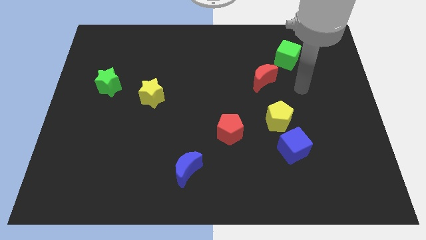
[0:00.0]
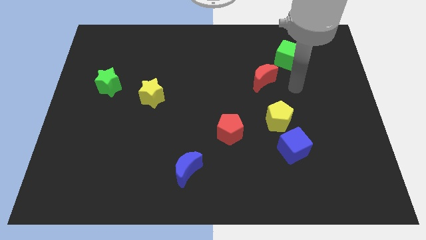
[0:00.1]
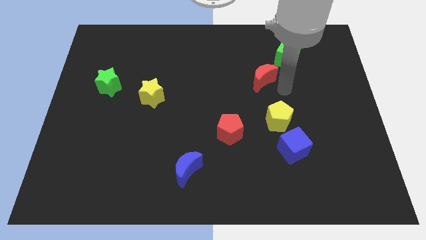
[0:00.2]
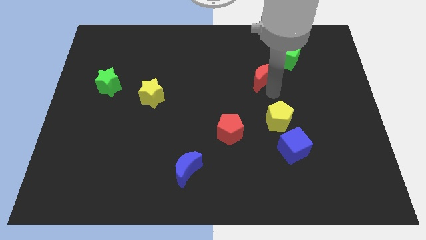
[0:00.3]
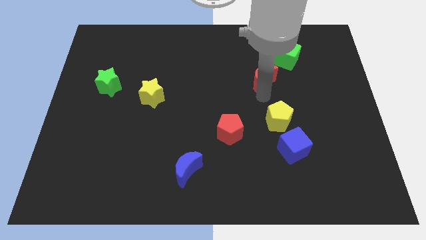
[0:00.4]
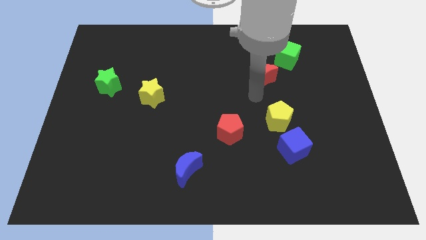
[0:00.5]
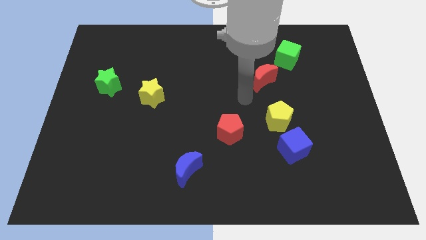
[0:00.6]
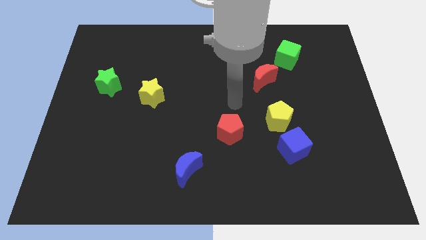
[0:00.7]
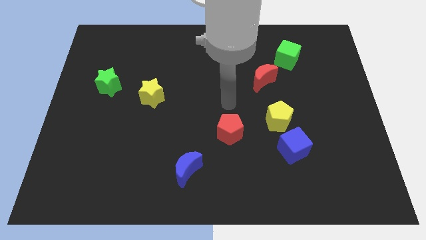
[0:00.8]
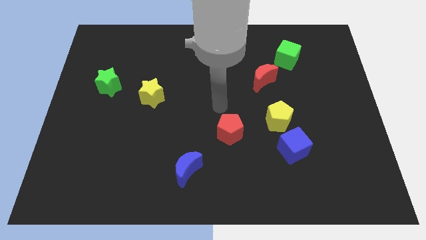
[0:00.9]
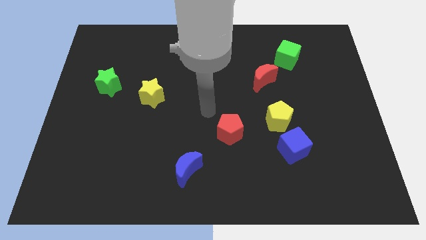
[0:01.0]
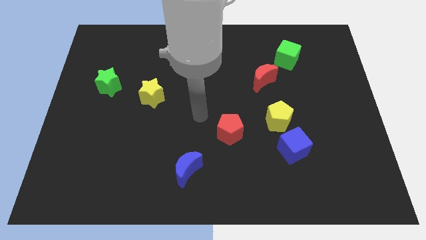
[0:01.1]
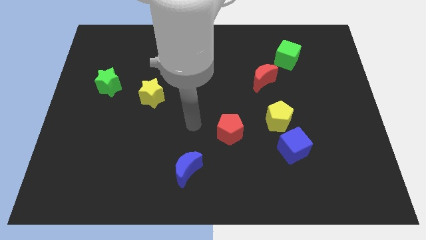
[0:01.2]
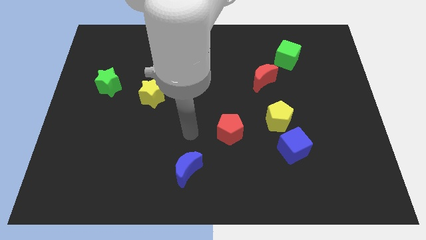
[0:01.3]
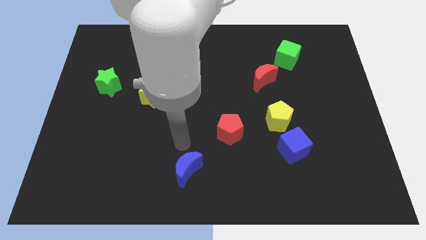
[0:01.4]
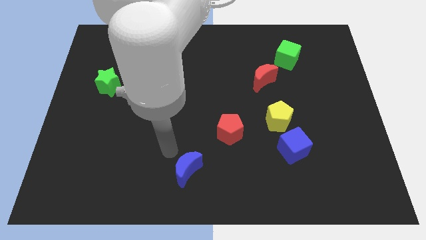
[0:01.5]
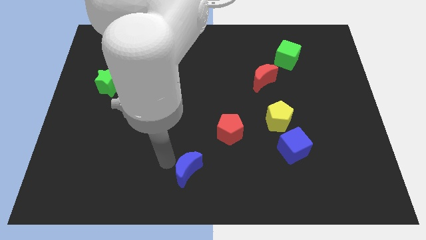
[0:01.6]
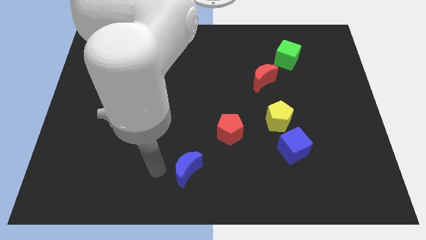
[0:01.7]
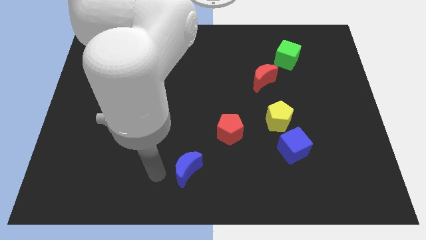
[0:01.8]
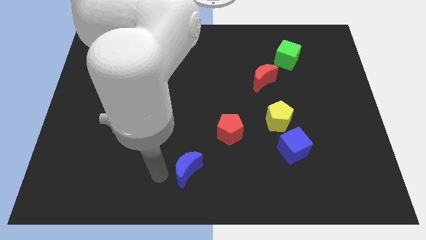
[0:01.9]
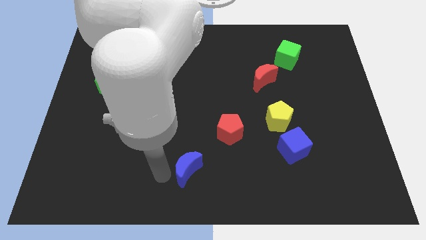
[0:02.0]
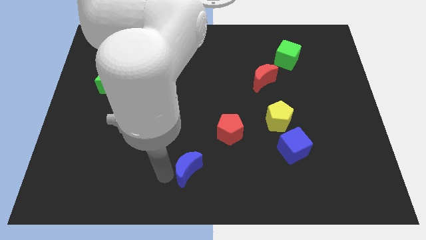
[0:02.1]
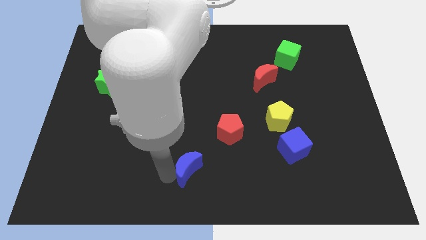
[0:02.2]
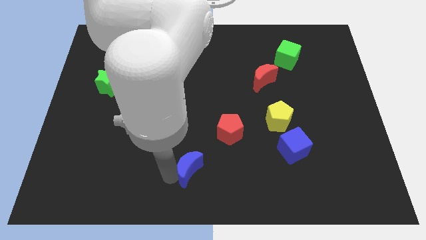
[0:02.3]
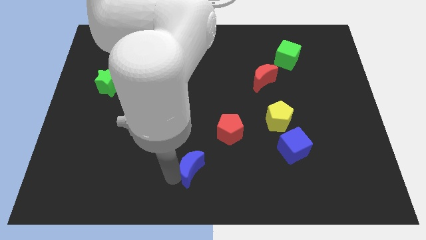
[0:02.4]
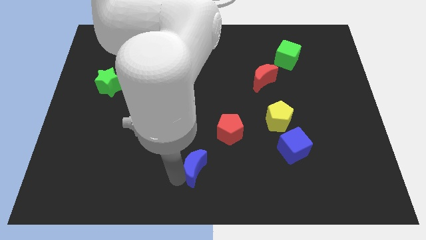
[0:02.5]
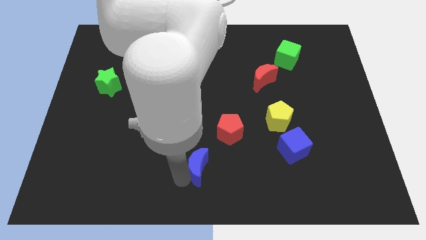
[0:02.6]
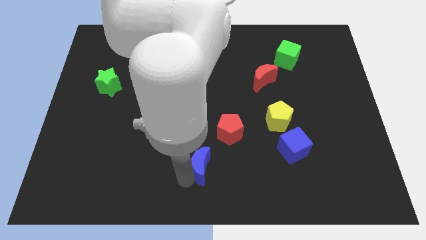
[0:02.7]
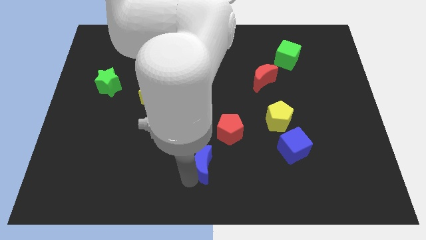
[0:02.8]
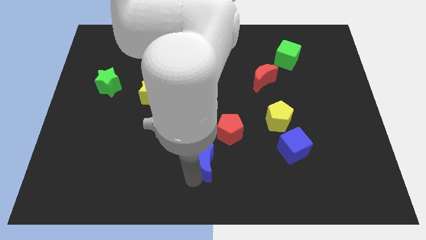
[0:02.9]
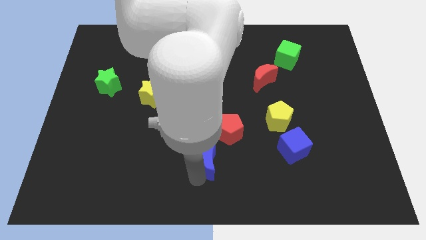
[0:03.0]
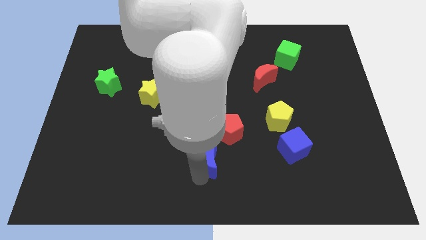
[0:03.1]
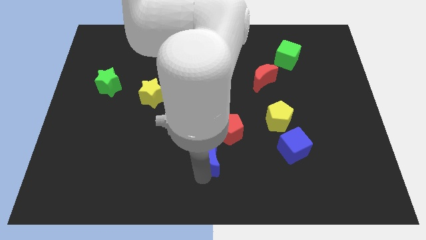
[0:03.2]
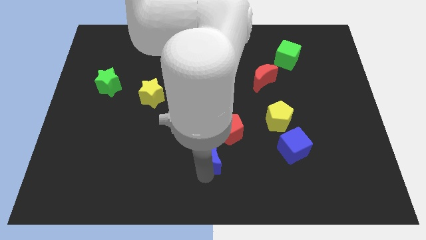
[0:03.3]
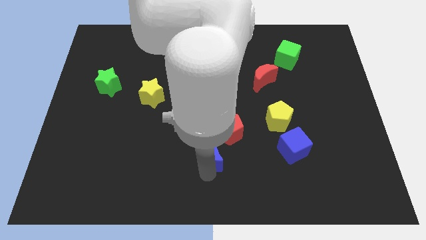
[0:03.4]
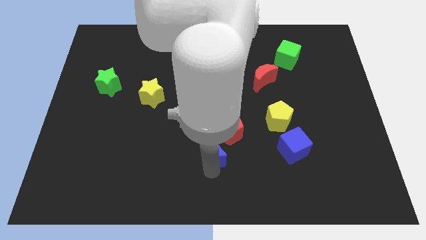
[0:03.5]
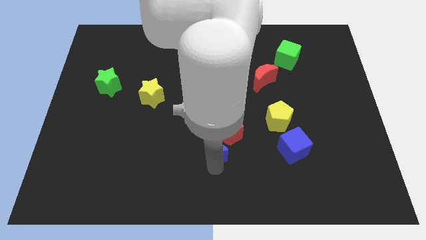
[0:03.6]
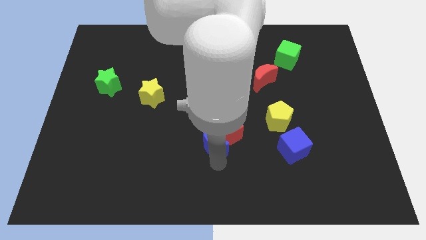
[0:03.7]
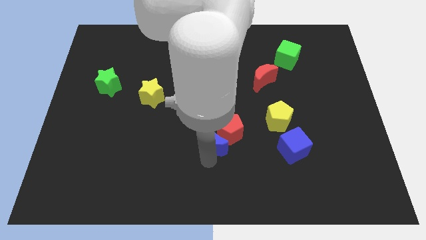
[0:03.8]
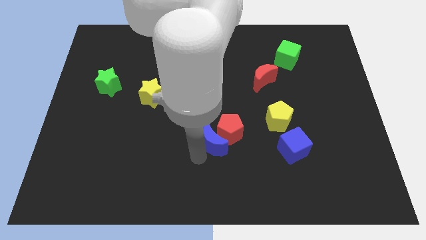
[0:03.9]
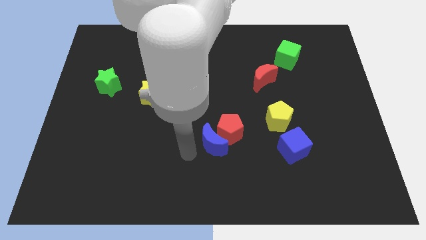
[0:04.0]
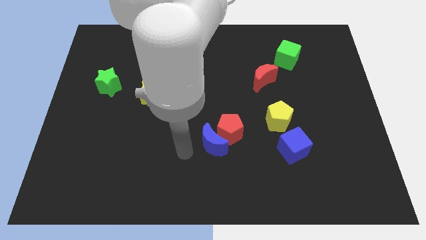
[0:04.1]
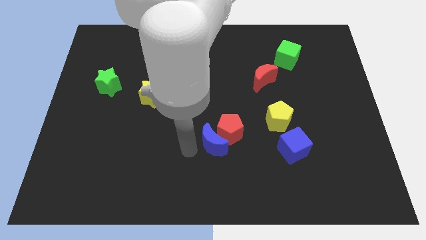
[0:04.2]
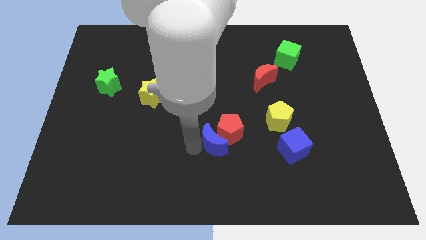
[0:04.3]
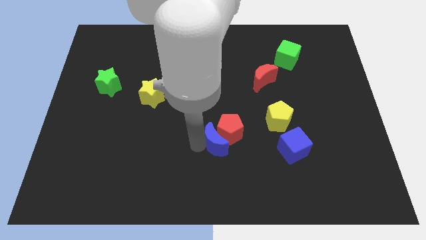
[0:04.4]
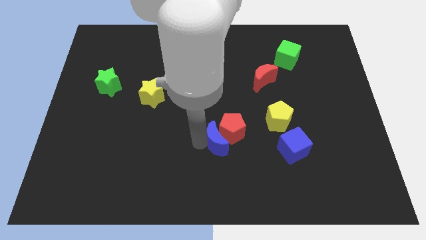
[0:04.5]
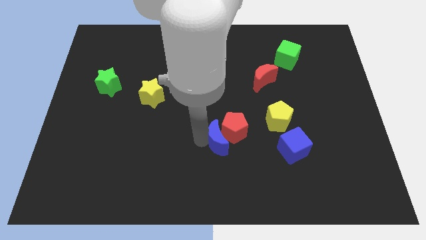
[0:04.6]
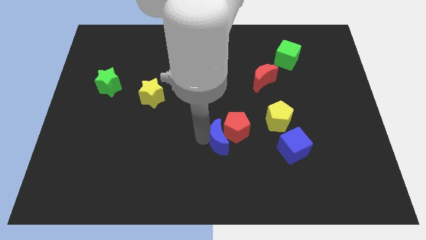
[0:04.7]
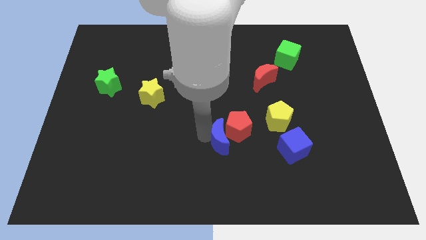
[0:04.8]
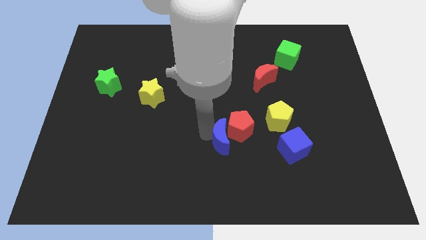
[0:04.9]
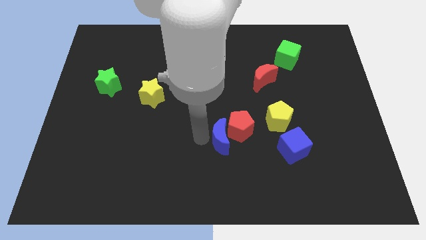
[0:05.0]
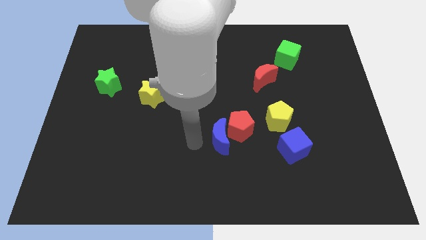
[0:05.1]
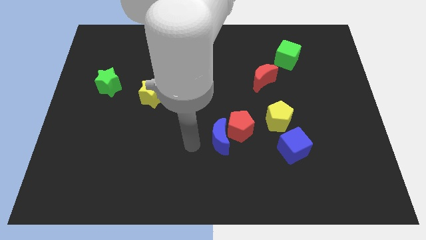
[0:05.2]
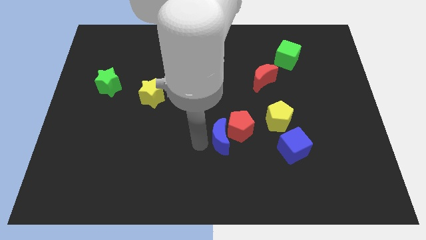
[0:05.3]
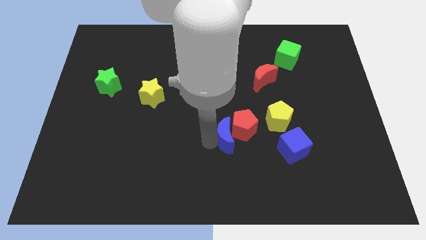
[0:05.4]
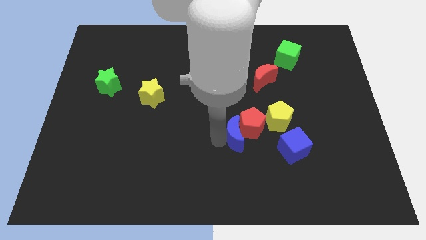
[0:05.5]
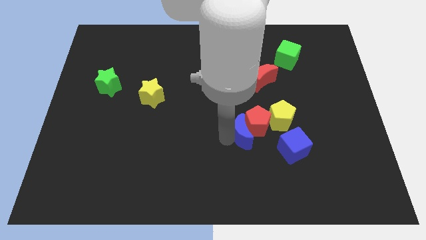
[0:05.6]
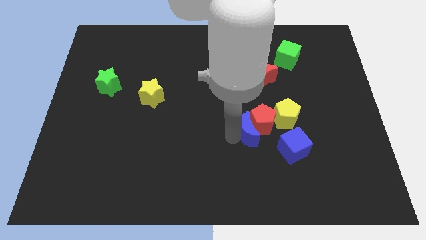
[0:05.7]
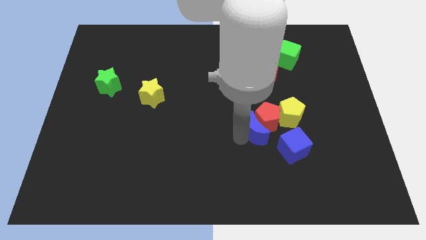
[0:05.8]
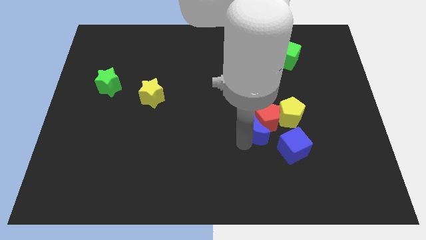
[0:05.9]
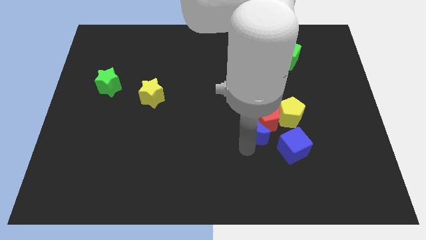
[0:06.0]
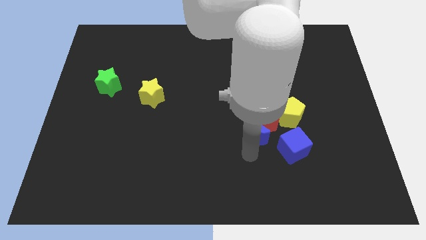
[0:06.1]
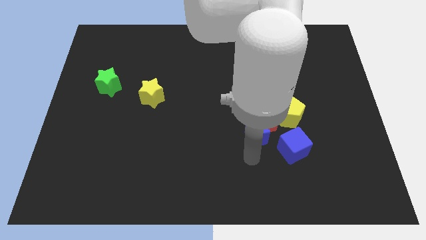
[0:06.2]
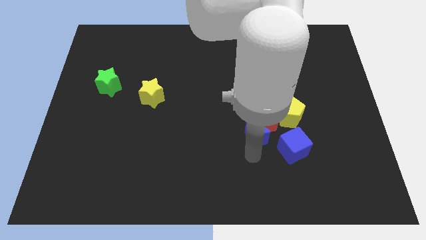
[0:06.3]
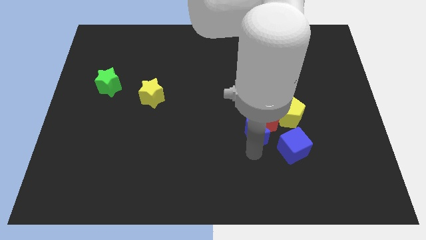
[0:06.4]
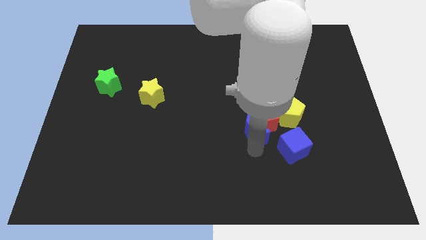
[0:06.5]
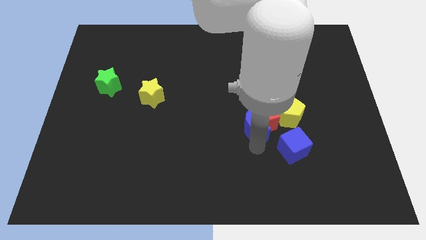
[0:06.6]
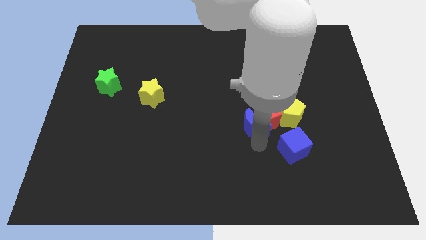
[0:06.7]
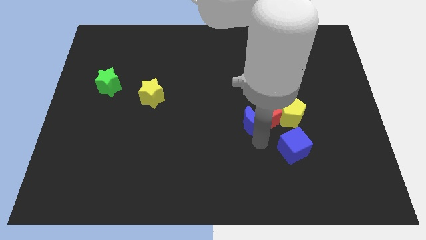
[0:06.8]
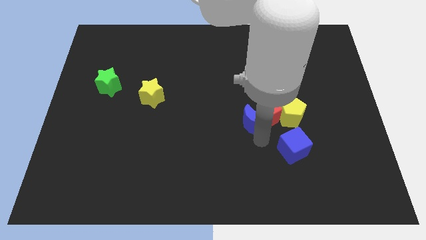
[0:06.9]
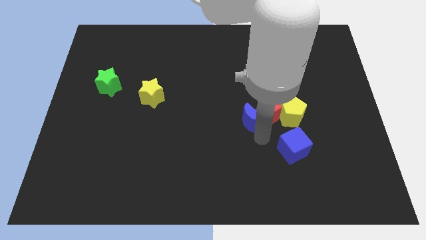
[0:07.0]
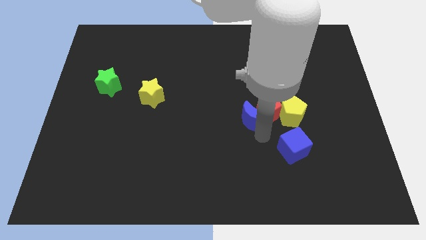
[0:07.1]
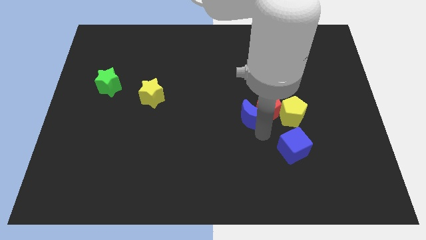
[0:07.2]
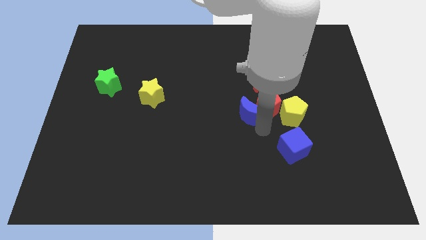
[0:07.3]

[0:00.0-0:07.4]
move the blue moon up and to the right diagonally

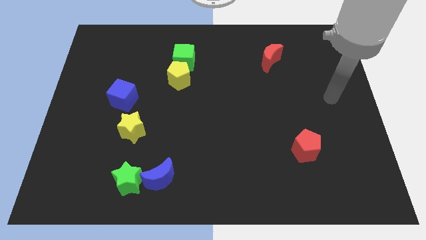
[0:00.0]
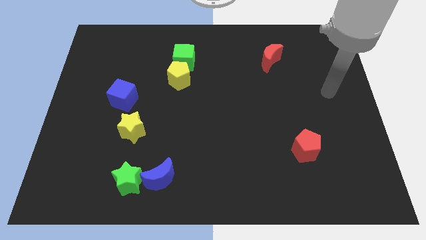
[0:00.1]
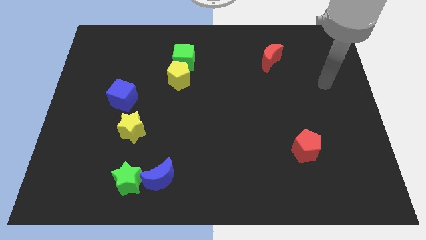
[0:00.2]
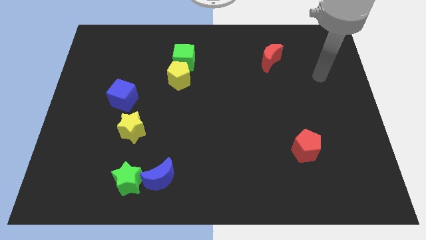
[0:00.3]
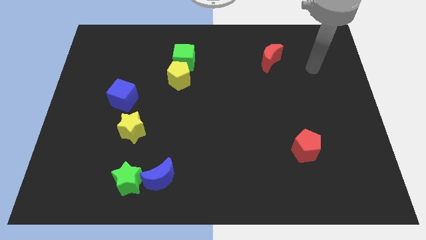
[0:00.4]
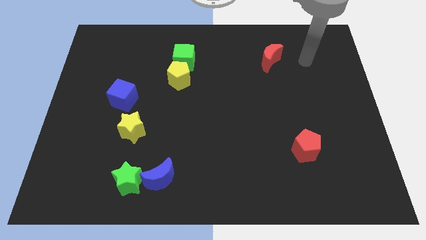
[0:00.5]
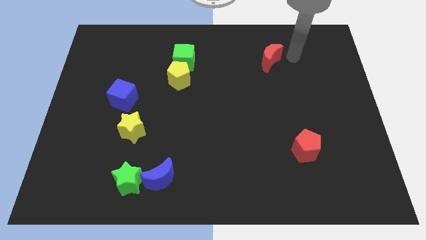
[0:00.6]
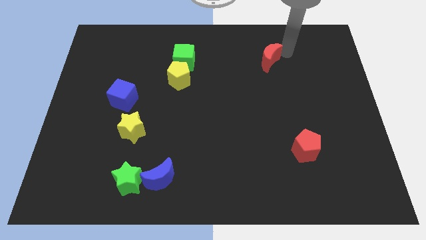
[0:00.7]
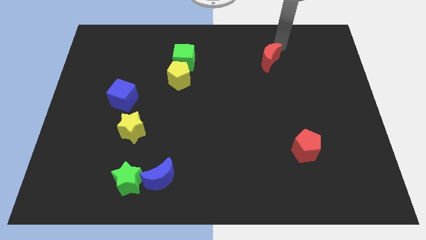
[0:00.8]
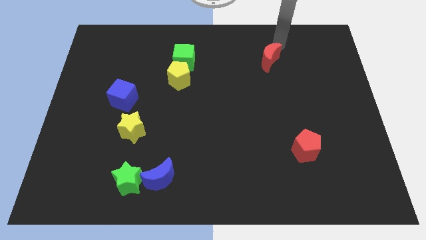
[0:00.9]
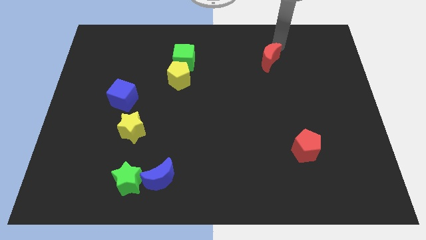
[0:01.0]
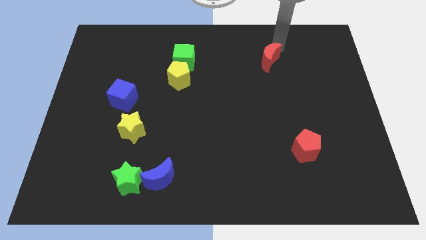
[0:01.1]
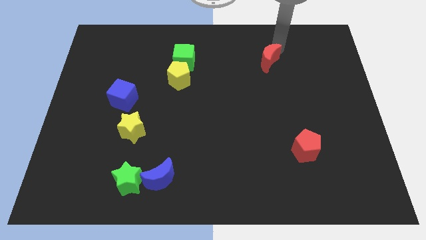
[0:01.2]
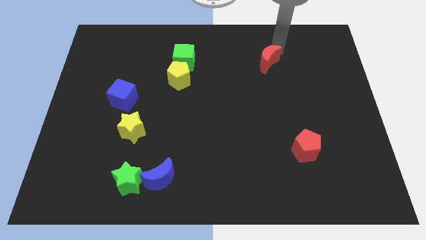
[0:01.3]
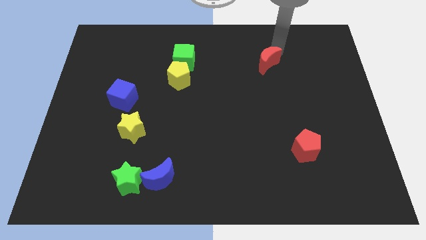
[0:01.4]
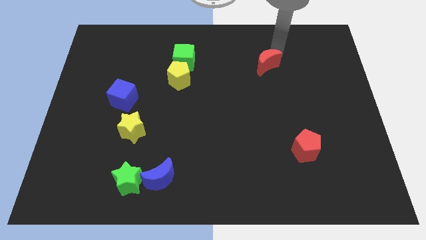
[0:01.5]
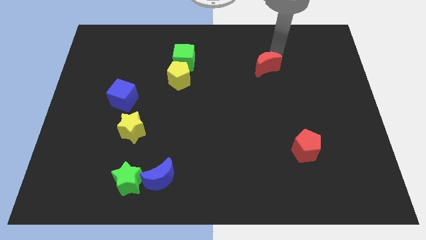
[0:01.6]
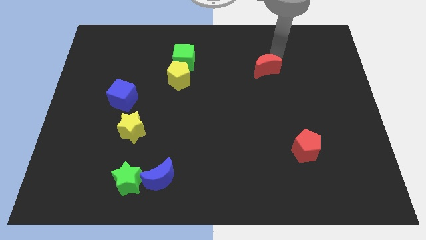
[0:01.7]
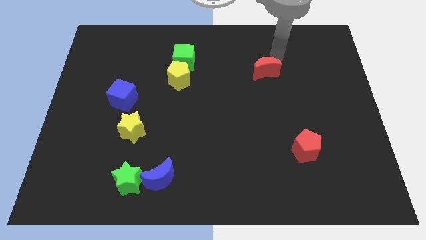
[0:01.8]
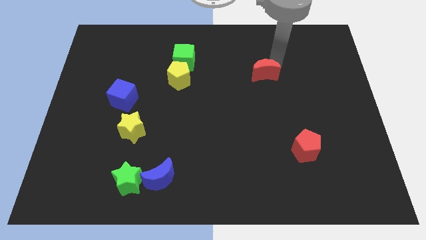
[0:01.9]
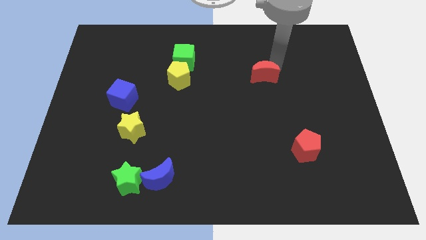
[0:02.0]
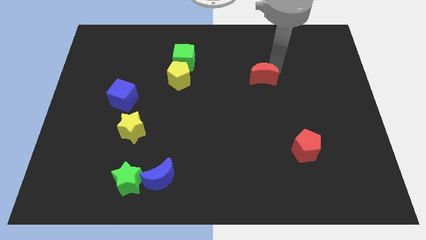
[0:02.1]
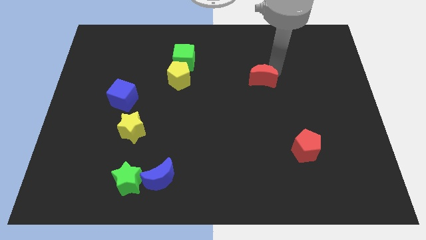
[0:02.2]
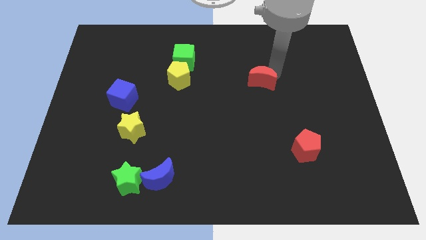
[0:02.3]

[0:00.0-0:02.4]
move the red moon down and then to the left somewhat
